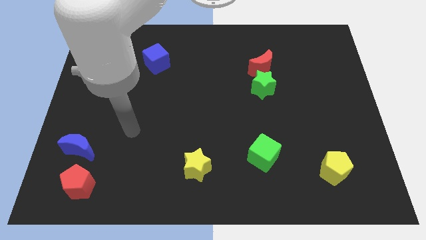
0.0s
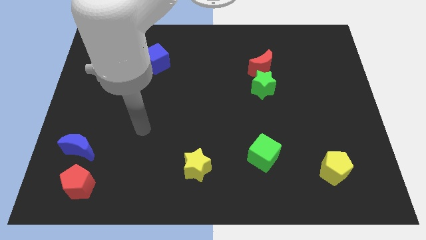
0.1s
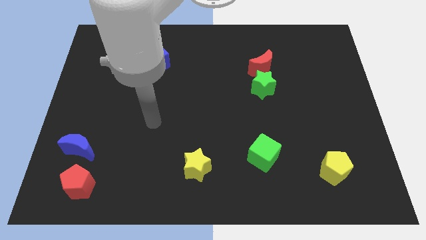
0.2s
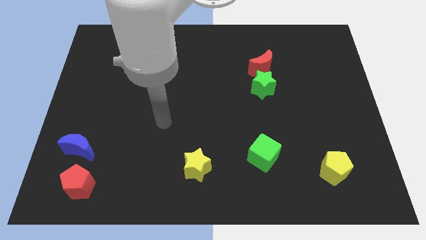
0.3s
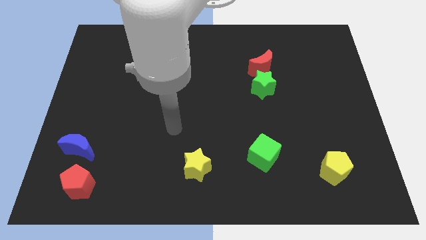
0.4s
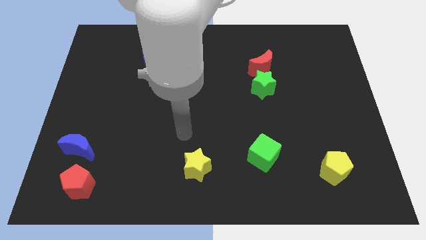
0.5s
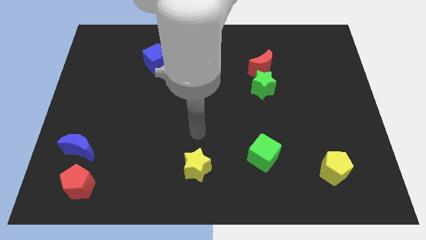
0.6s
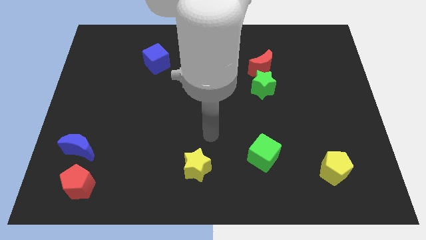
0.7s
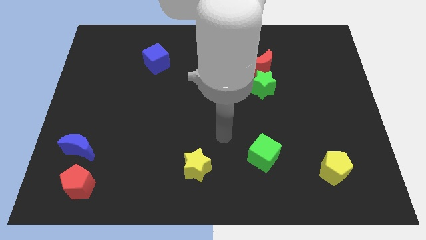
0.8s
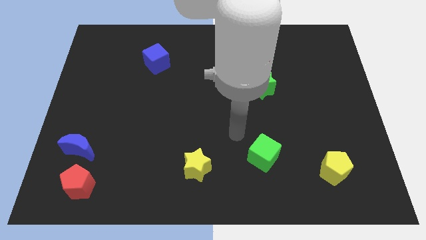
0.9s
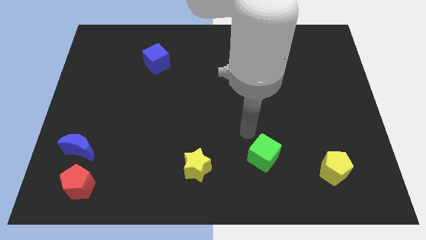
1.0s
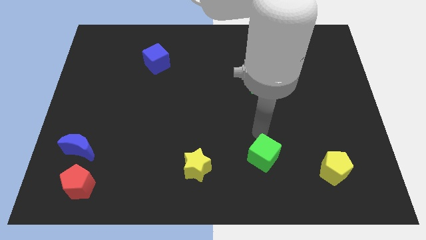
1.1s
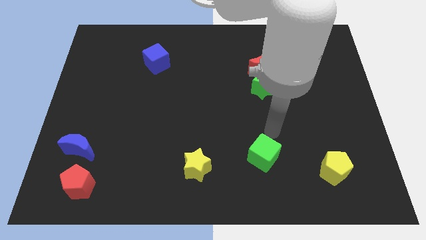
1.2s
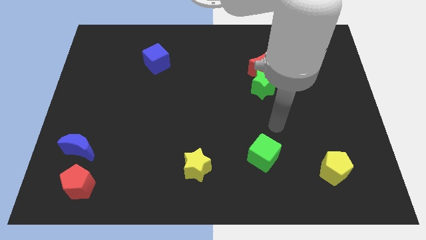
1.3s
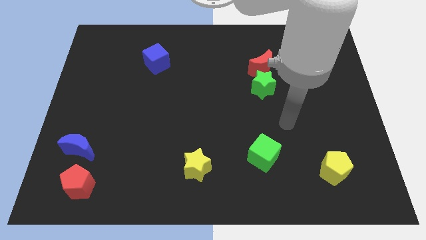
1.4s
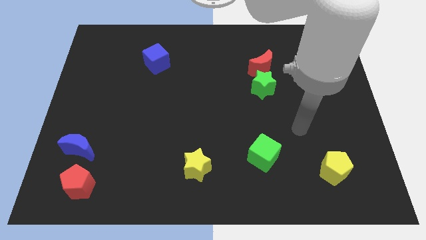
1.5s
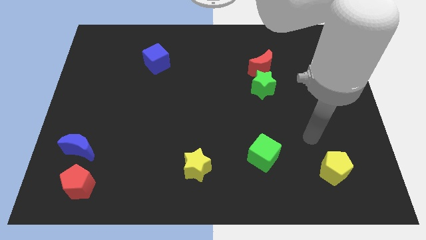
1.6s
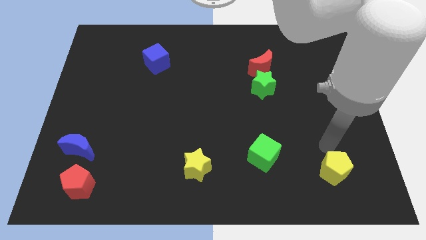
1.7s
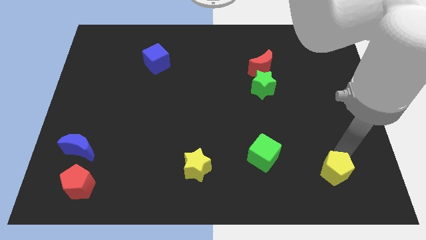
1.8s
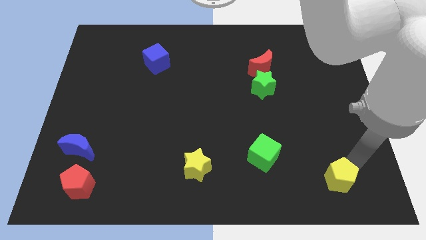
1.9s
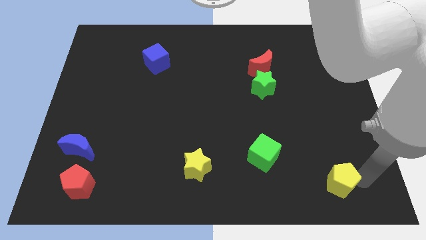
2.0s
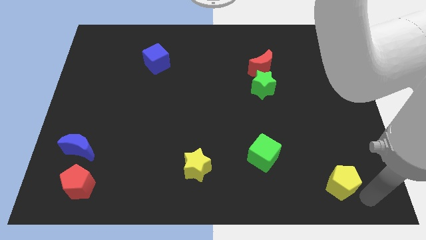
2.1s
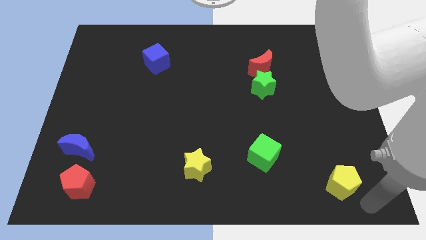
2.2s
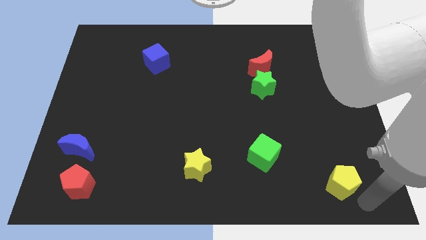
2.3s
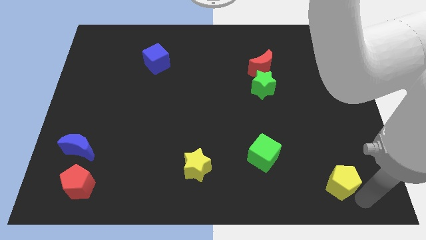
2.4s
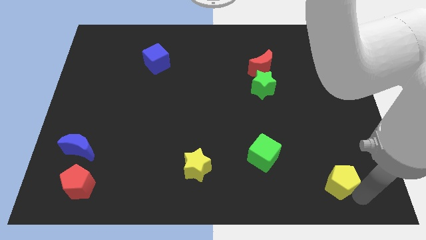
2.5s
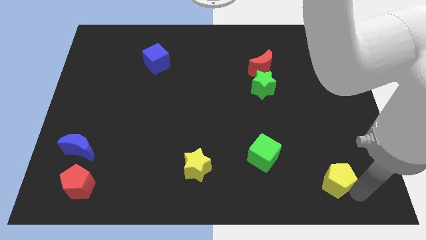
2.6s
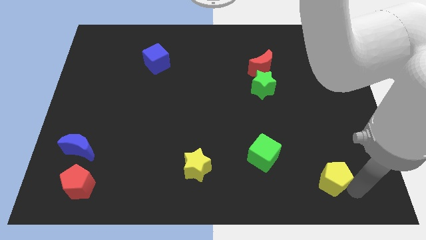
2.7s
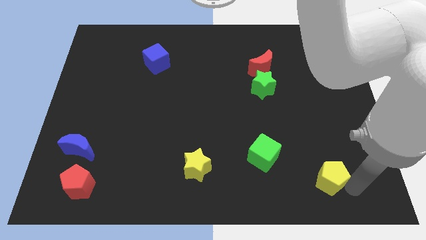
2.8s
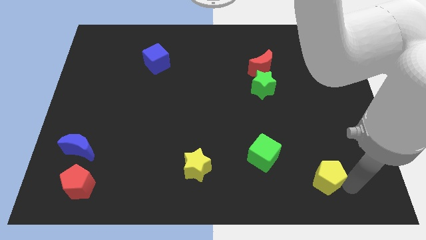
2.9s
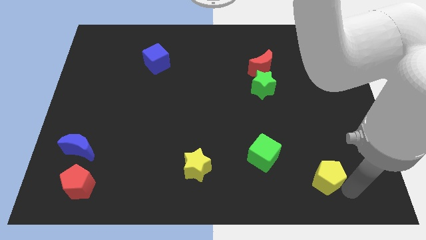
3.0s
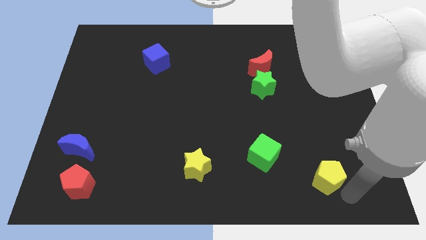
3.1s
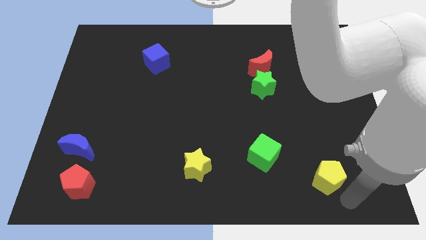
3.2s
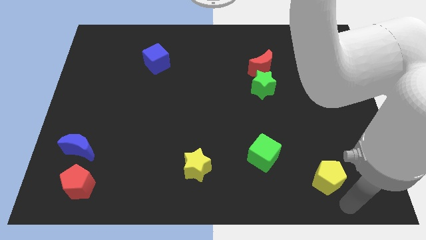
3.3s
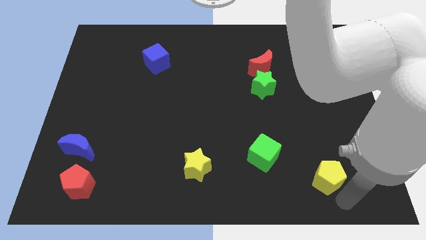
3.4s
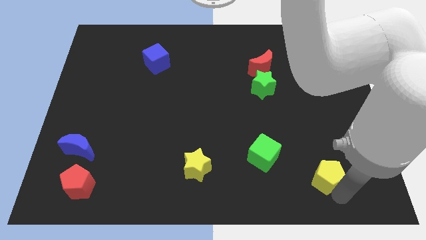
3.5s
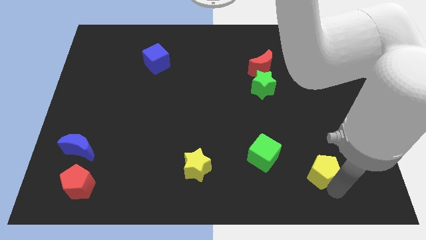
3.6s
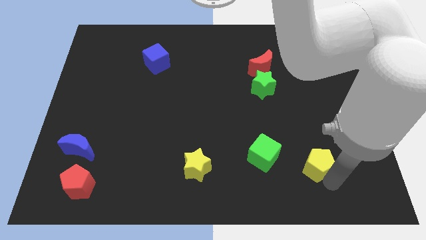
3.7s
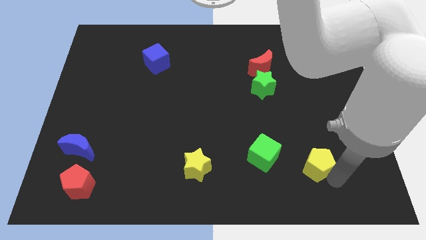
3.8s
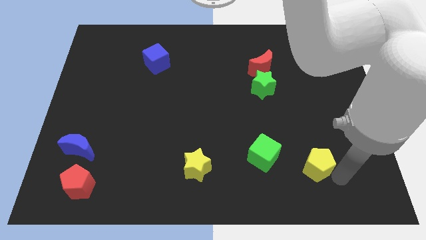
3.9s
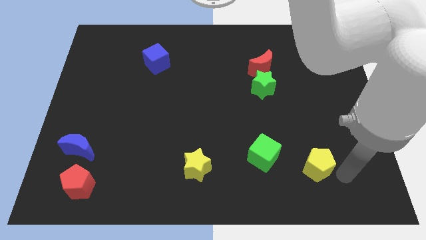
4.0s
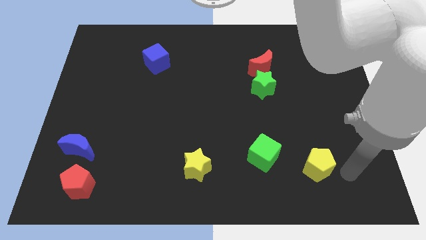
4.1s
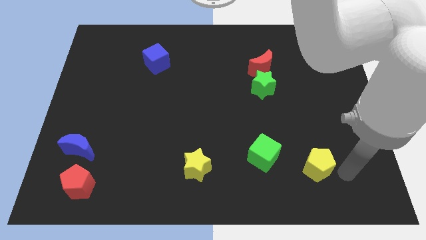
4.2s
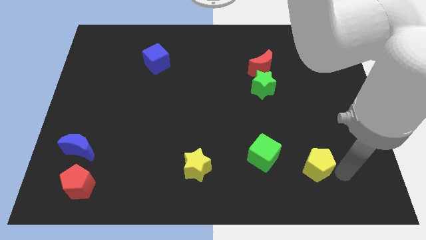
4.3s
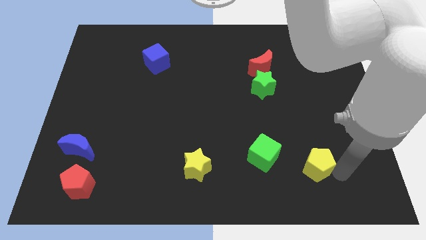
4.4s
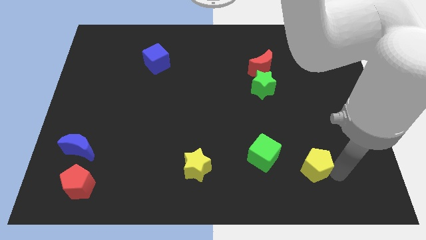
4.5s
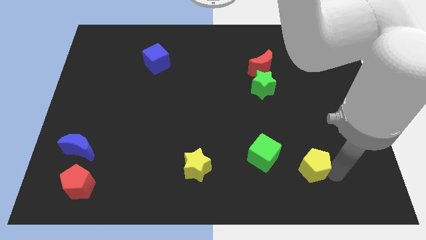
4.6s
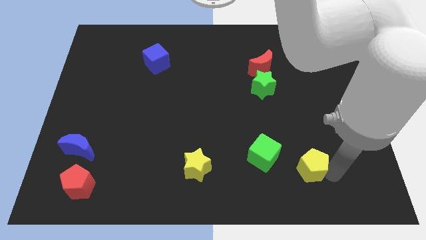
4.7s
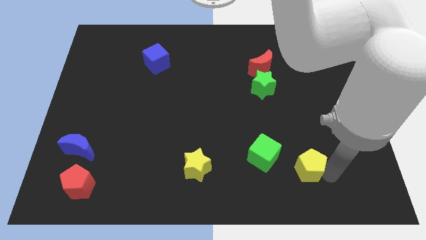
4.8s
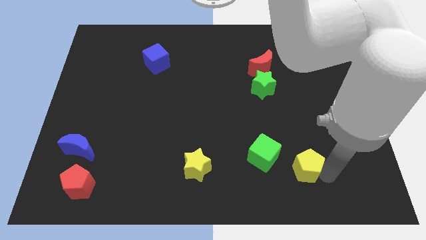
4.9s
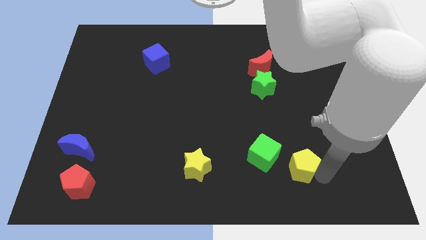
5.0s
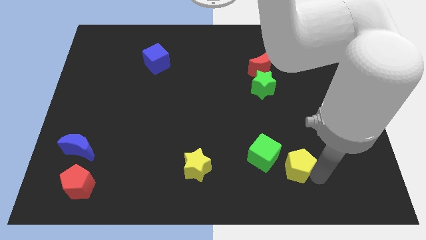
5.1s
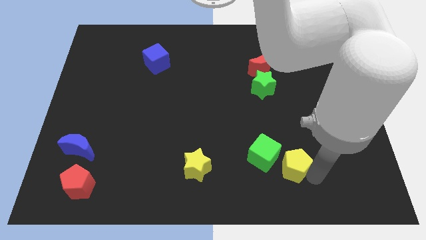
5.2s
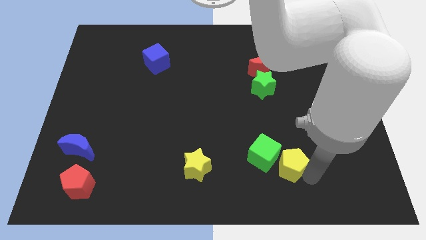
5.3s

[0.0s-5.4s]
slide the yellow pentagon next to the green cube

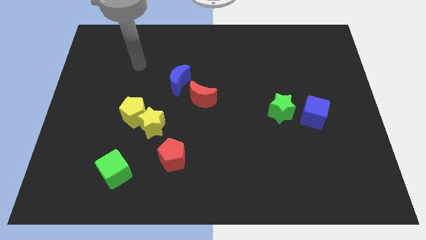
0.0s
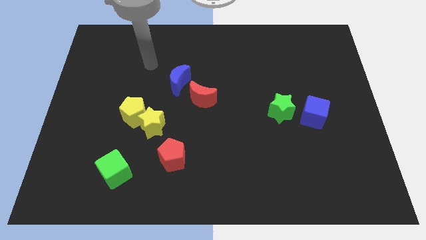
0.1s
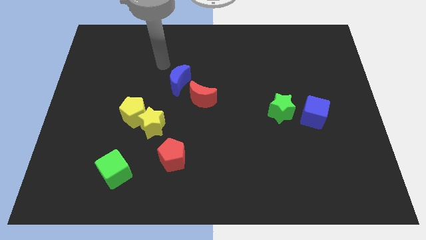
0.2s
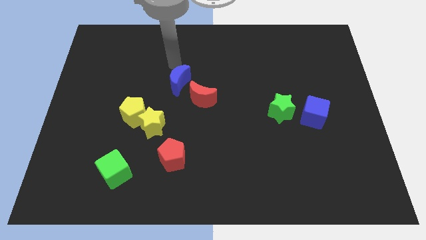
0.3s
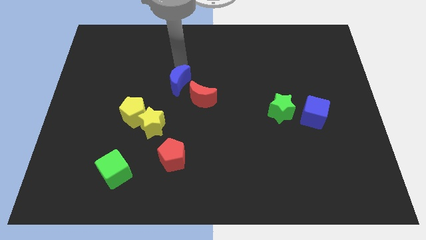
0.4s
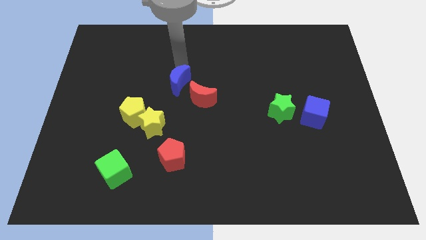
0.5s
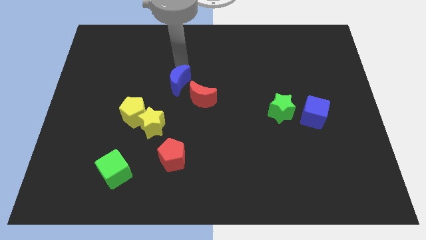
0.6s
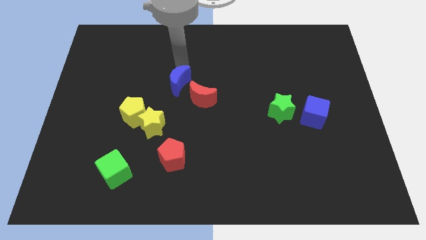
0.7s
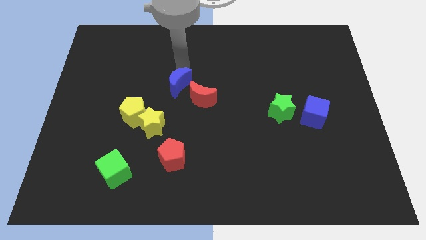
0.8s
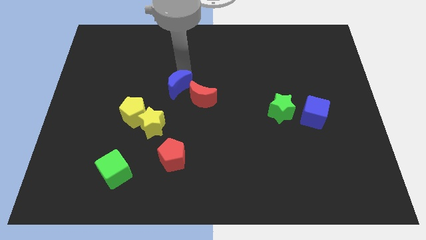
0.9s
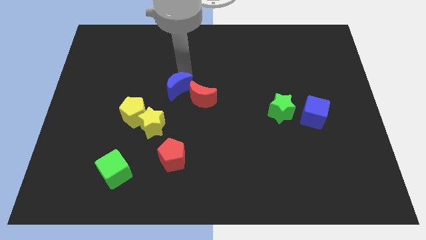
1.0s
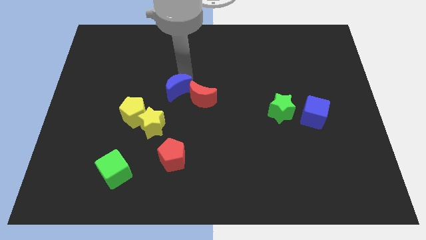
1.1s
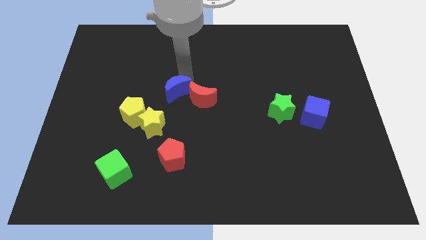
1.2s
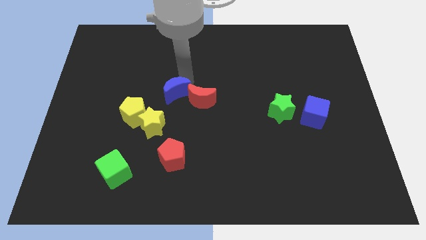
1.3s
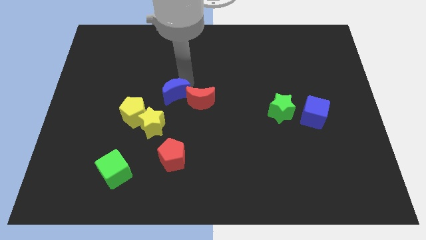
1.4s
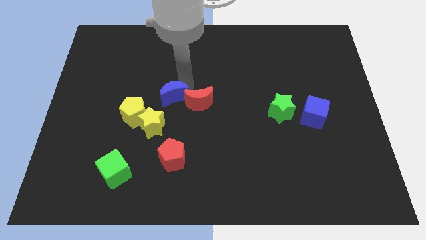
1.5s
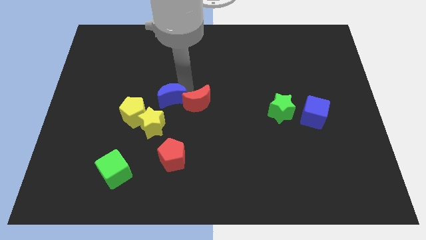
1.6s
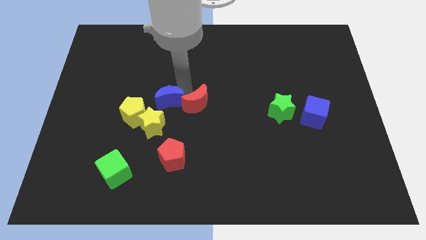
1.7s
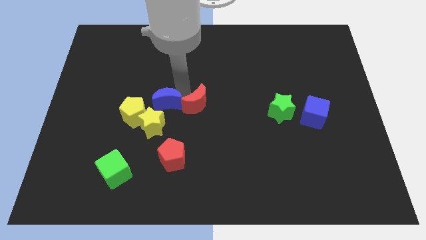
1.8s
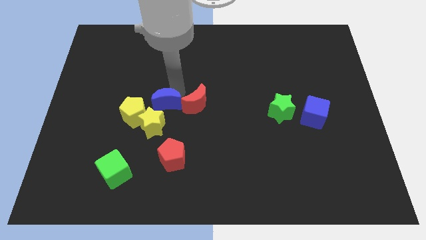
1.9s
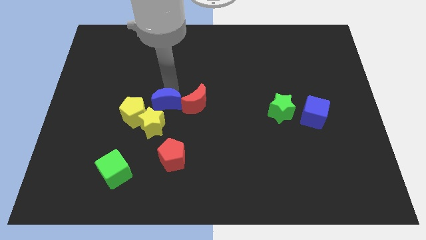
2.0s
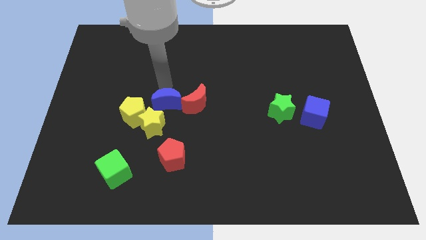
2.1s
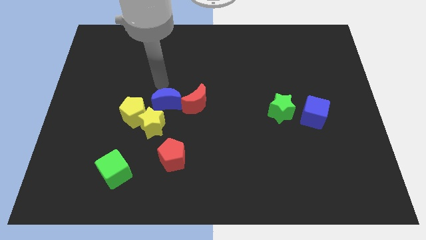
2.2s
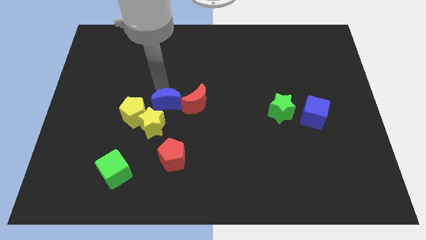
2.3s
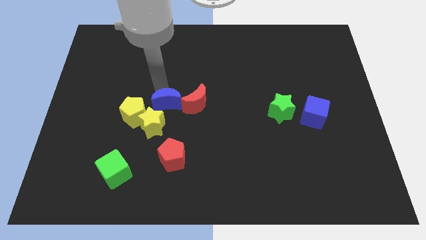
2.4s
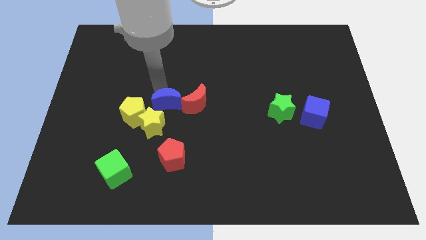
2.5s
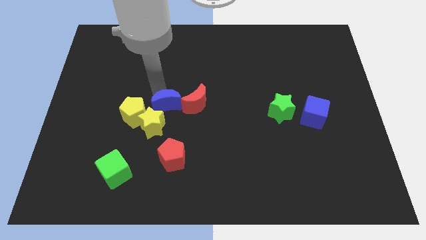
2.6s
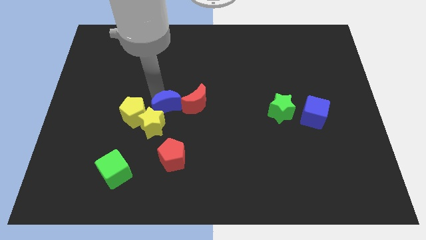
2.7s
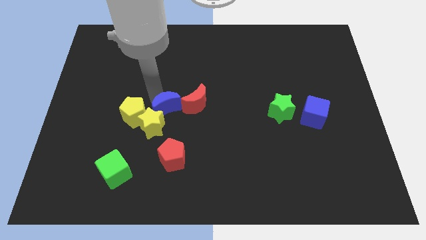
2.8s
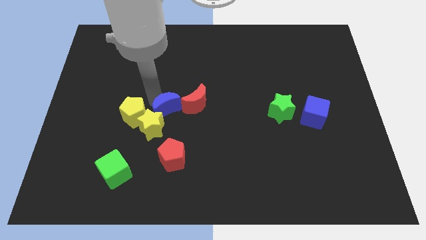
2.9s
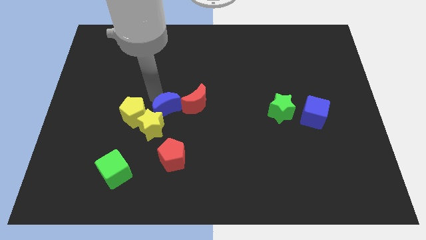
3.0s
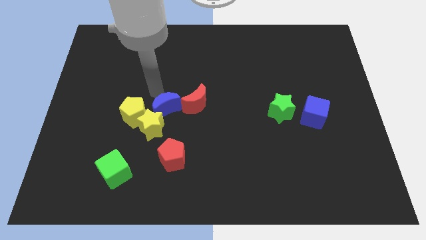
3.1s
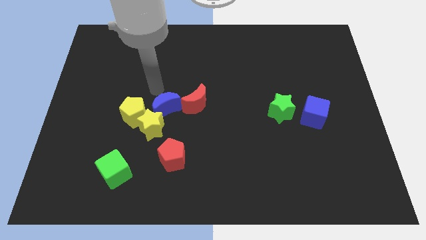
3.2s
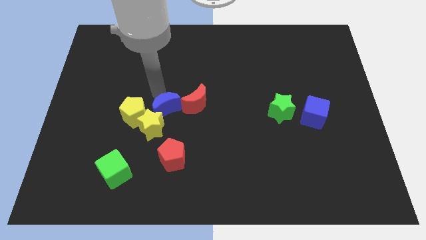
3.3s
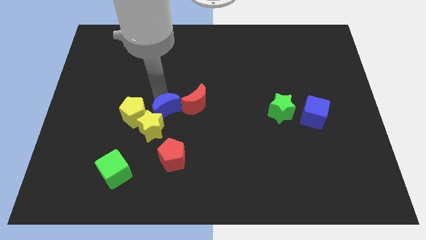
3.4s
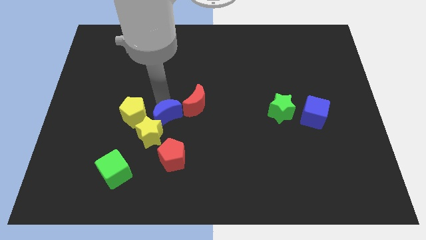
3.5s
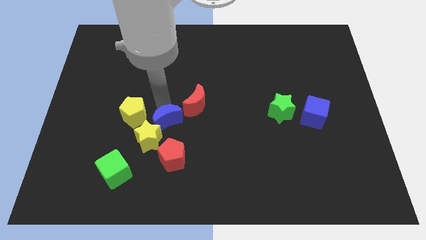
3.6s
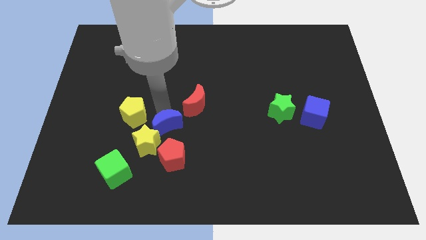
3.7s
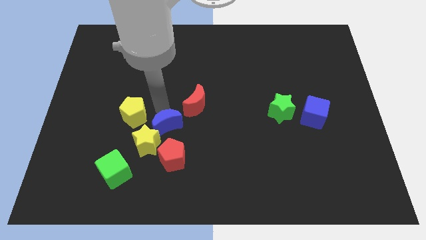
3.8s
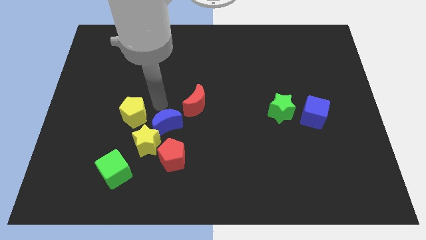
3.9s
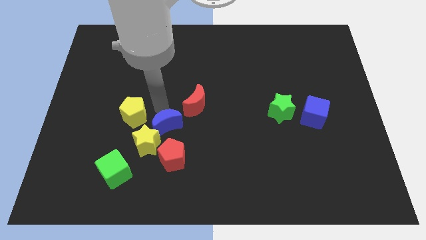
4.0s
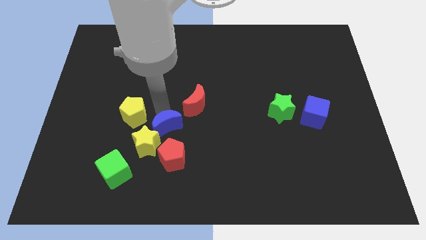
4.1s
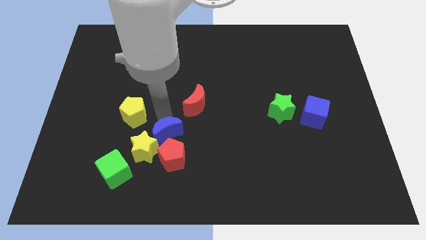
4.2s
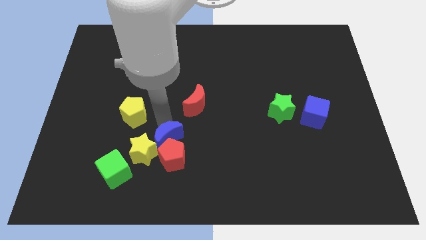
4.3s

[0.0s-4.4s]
move the blue moon towards the red pentagon
